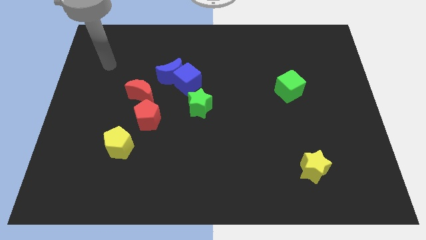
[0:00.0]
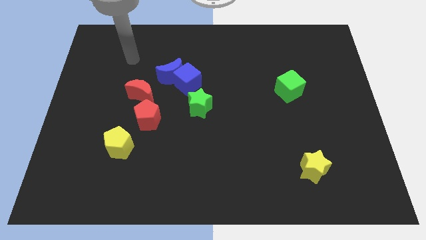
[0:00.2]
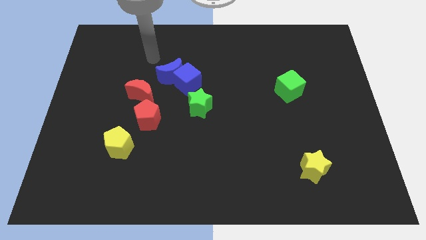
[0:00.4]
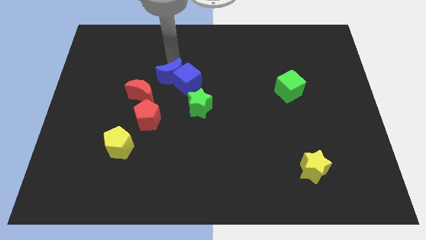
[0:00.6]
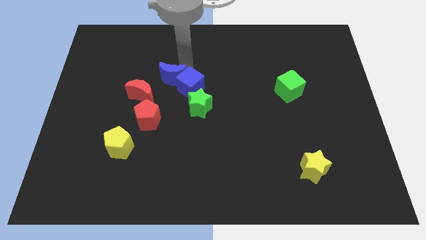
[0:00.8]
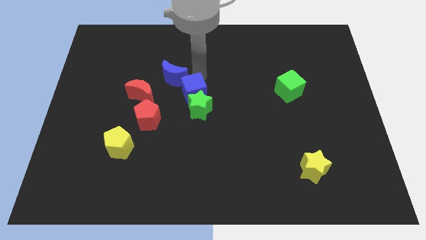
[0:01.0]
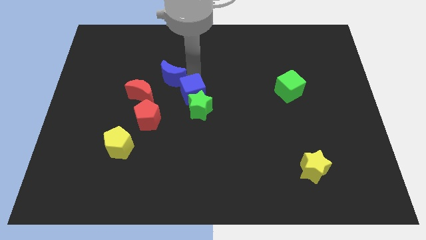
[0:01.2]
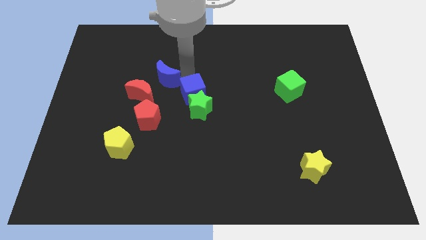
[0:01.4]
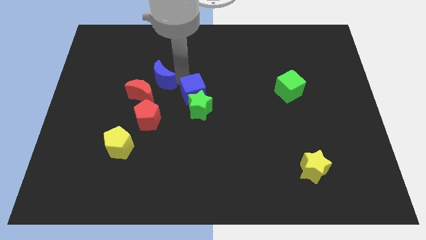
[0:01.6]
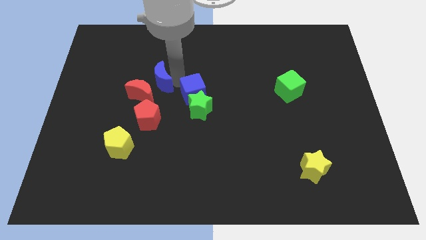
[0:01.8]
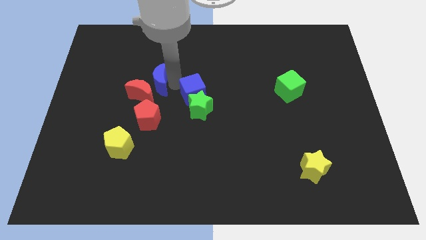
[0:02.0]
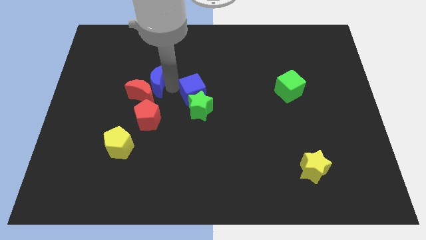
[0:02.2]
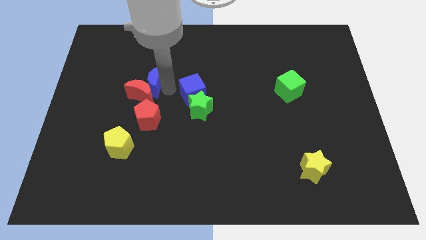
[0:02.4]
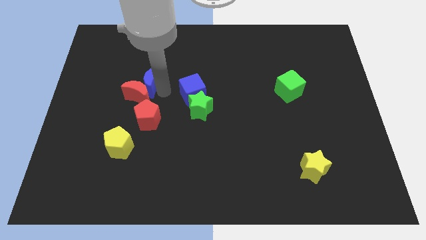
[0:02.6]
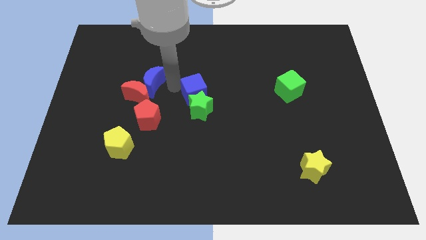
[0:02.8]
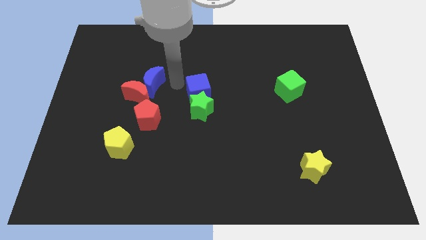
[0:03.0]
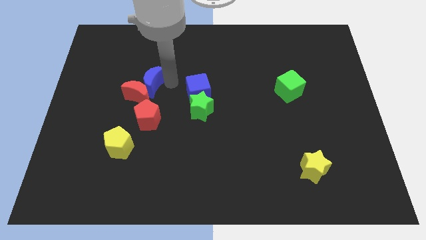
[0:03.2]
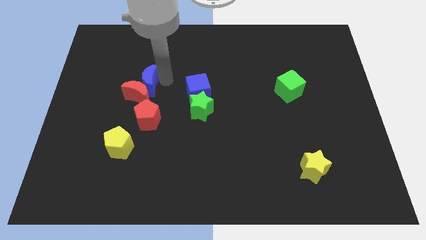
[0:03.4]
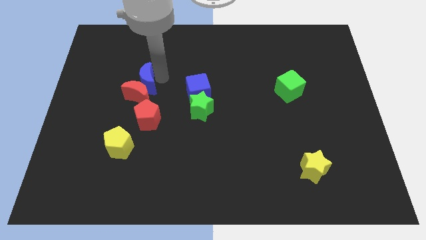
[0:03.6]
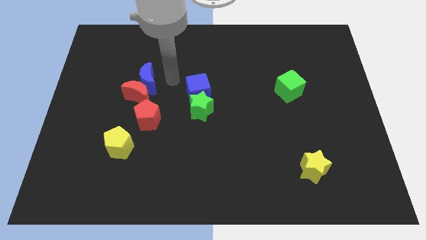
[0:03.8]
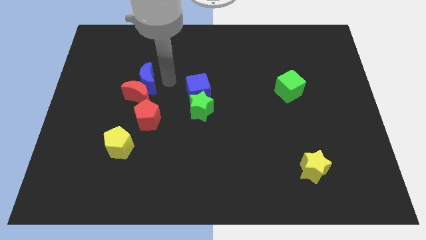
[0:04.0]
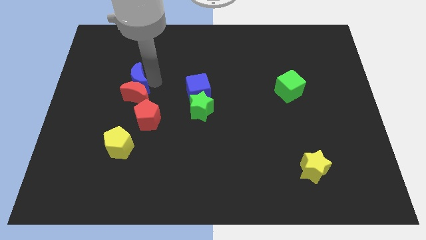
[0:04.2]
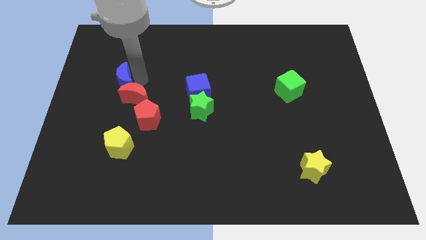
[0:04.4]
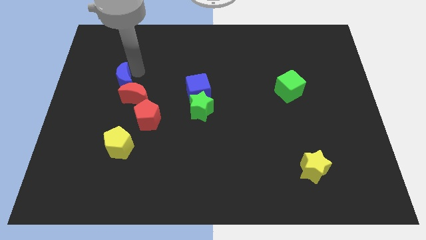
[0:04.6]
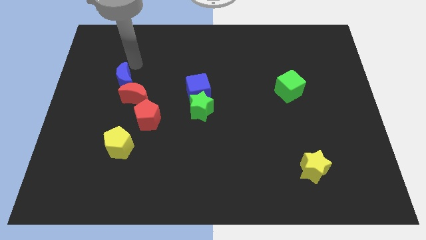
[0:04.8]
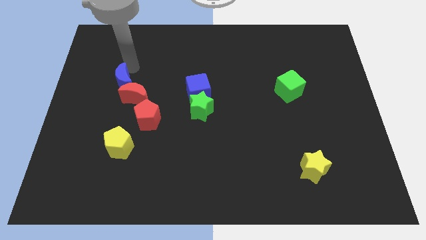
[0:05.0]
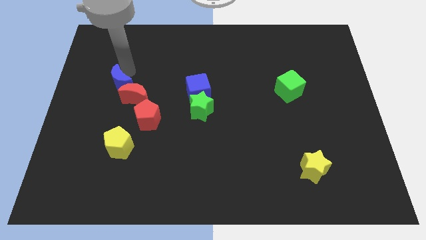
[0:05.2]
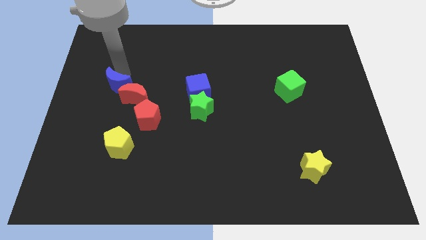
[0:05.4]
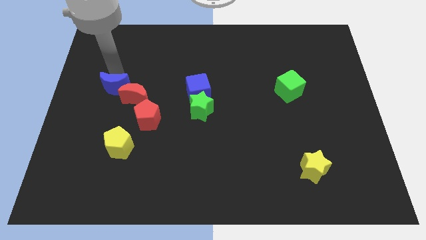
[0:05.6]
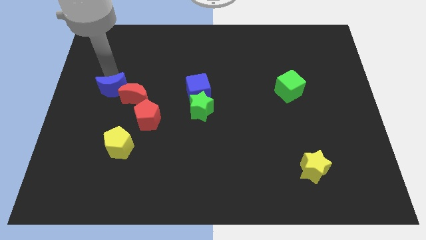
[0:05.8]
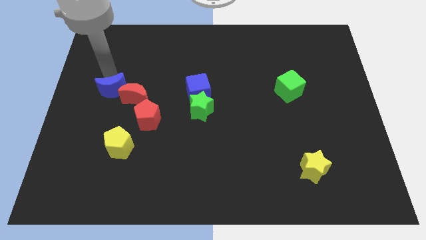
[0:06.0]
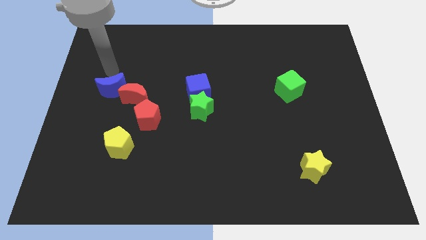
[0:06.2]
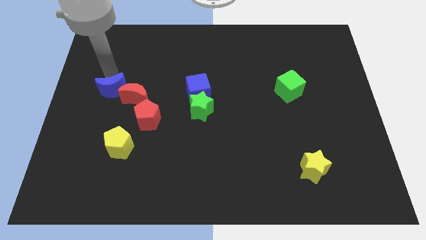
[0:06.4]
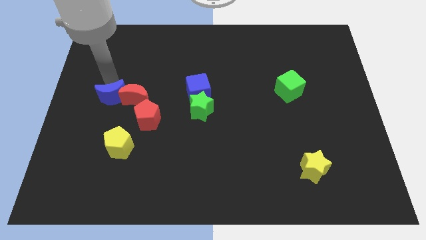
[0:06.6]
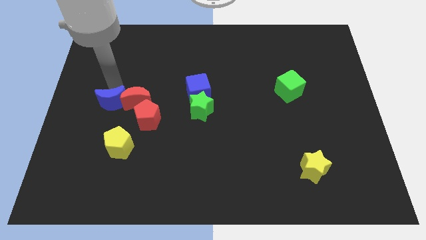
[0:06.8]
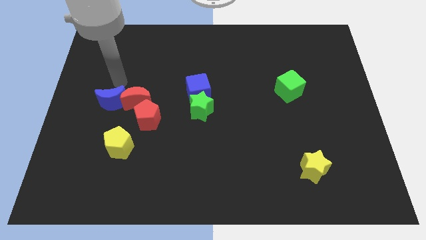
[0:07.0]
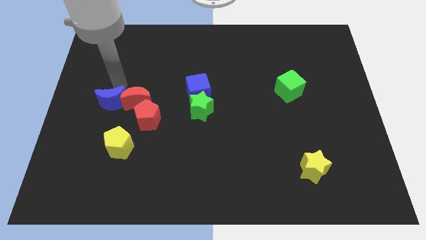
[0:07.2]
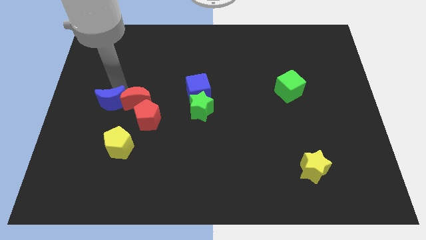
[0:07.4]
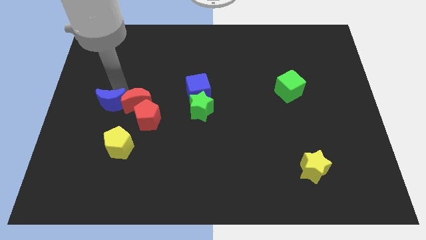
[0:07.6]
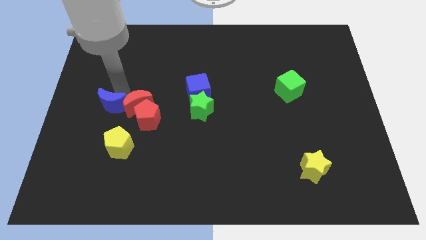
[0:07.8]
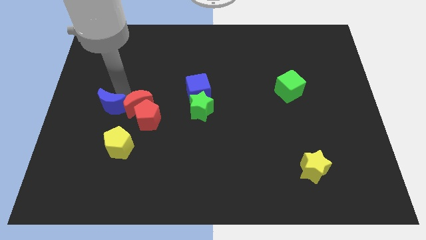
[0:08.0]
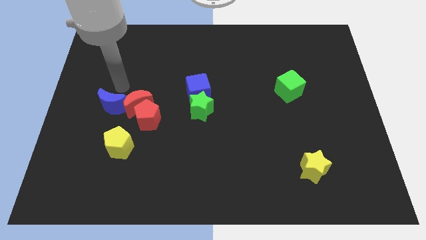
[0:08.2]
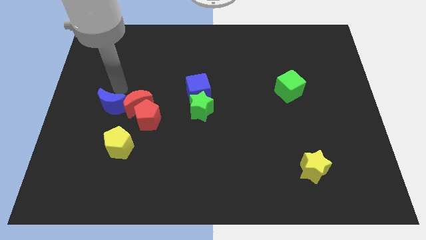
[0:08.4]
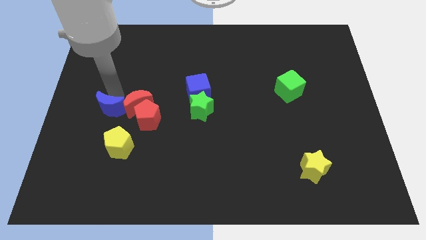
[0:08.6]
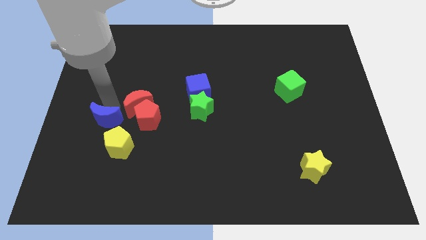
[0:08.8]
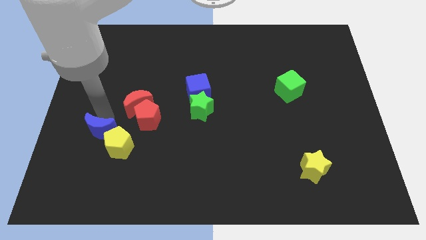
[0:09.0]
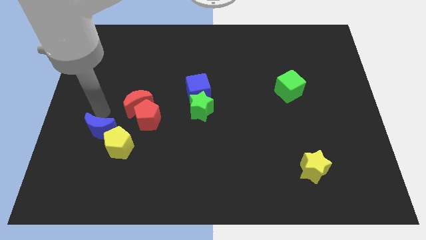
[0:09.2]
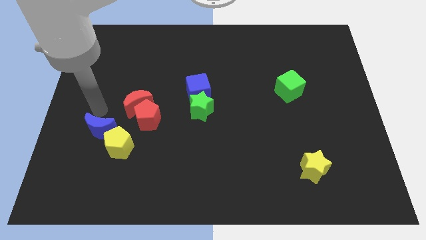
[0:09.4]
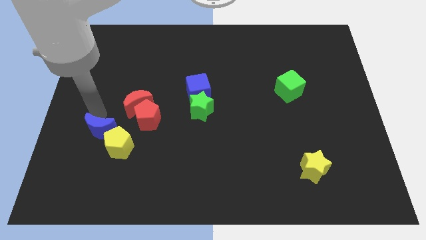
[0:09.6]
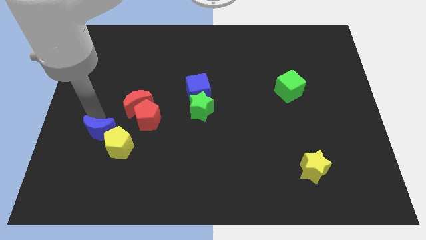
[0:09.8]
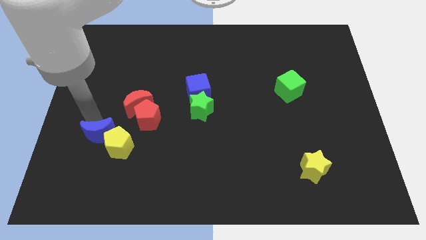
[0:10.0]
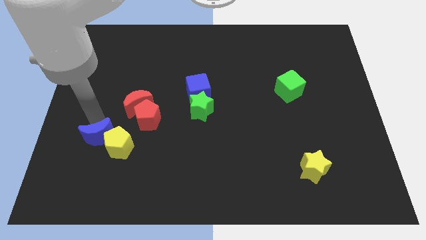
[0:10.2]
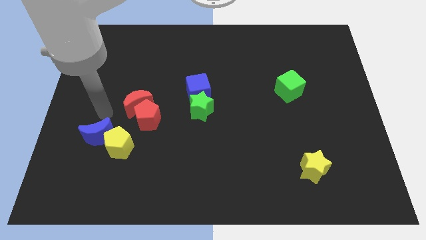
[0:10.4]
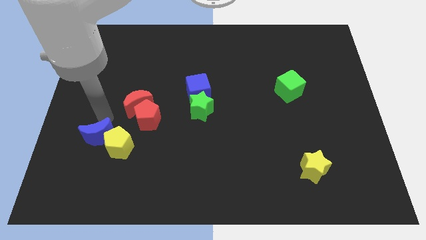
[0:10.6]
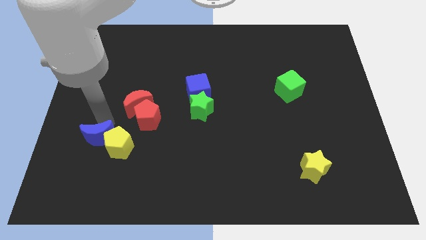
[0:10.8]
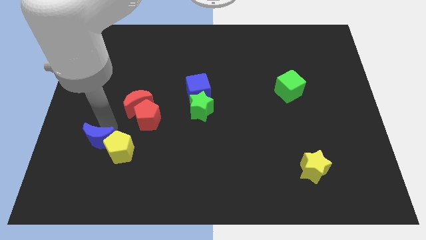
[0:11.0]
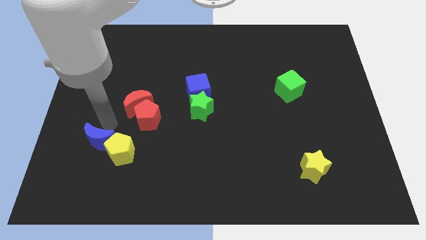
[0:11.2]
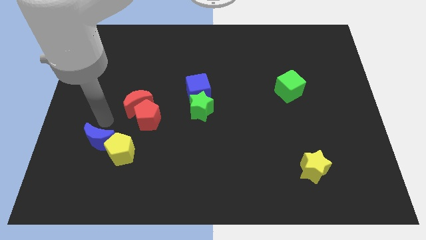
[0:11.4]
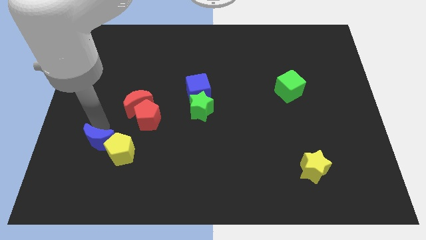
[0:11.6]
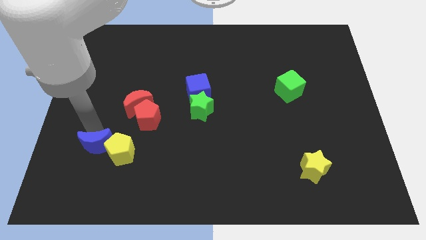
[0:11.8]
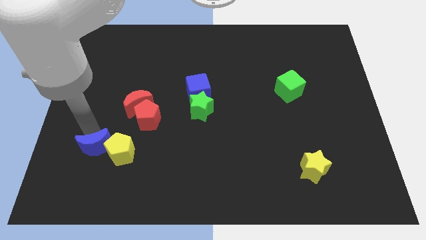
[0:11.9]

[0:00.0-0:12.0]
push the blue moon to the bottom left of the yellow pentagon
